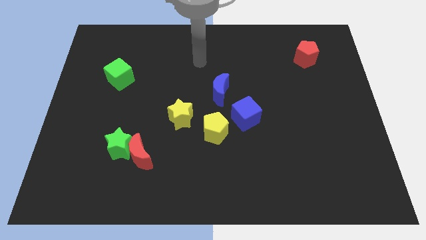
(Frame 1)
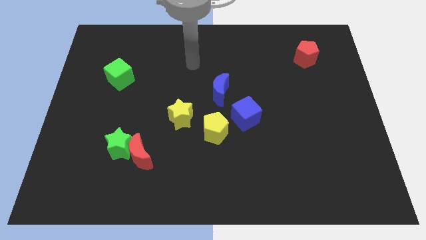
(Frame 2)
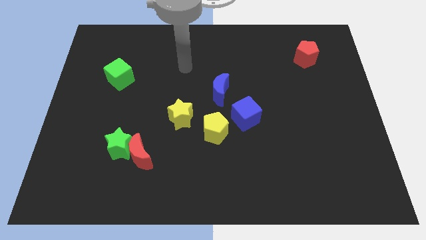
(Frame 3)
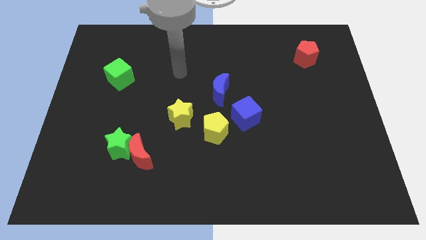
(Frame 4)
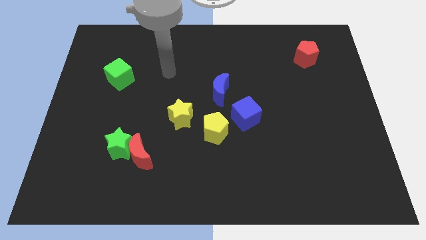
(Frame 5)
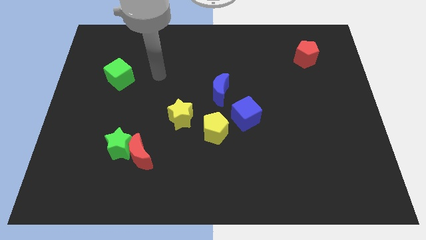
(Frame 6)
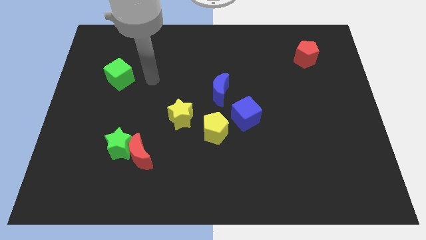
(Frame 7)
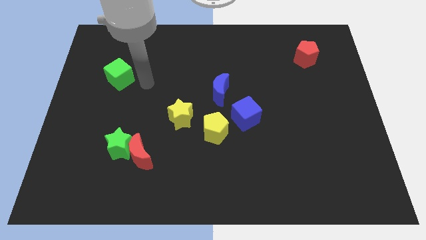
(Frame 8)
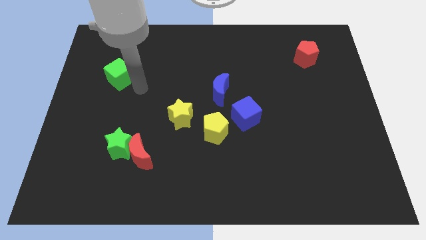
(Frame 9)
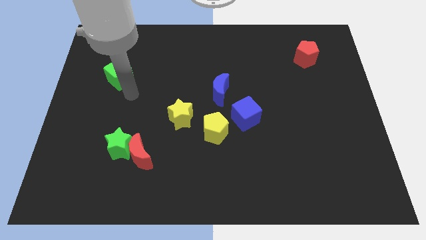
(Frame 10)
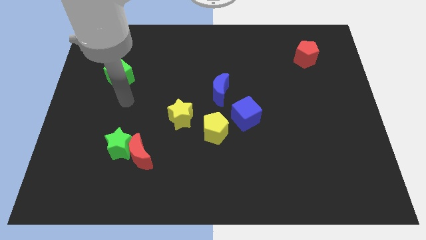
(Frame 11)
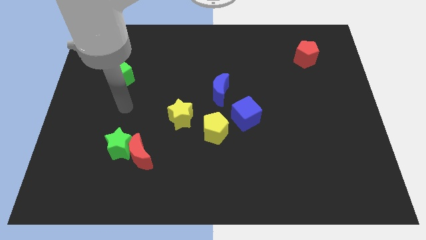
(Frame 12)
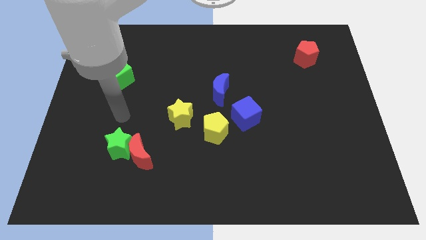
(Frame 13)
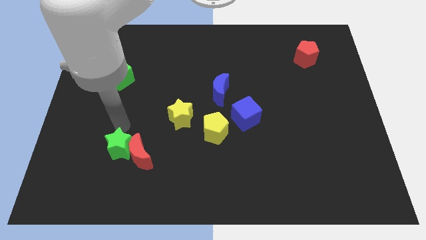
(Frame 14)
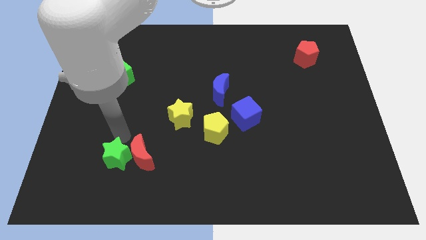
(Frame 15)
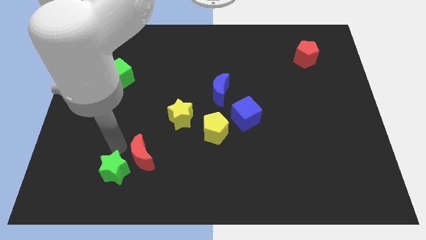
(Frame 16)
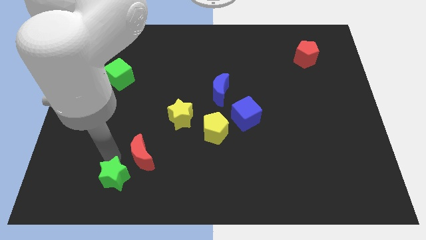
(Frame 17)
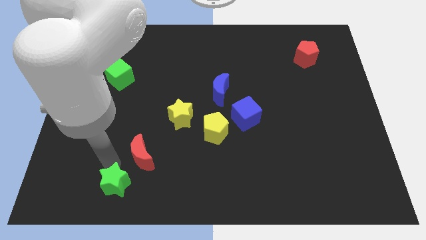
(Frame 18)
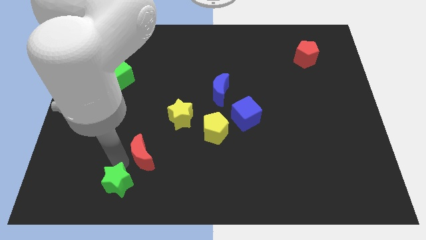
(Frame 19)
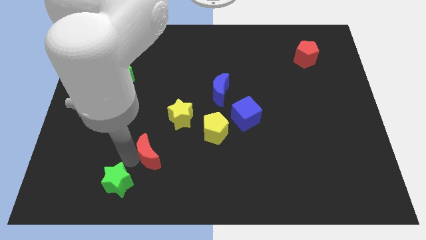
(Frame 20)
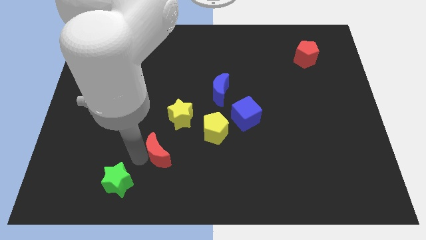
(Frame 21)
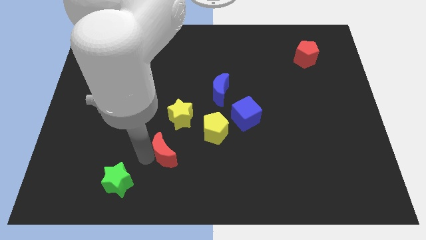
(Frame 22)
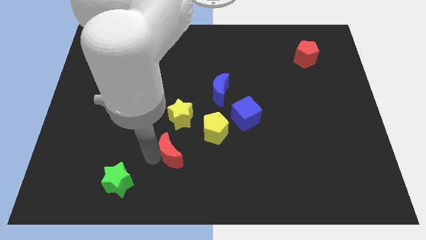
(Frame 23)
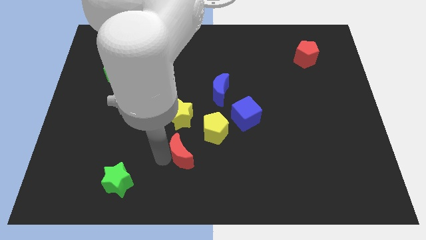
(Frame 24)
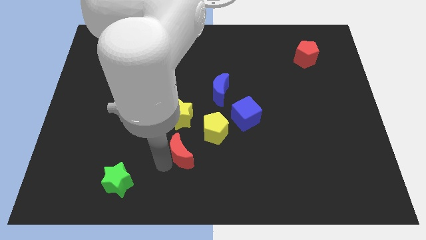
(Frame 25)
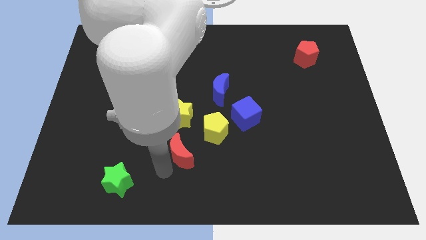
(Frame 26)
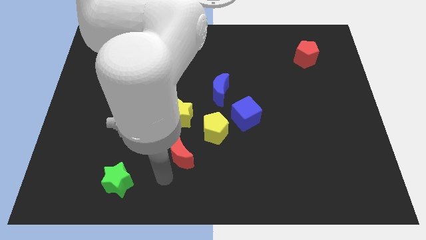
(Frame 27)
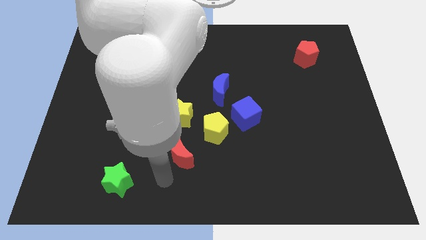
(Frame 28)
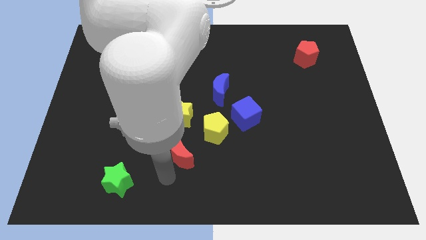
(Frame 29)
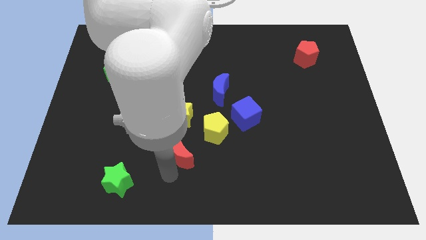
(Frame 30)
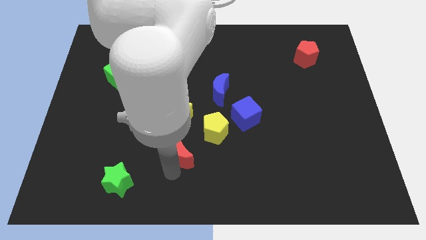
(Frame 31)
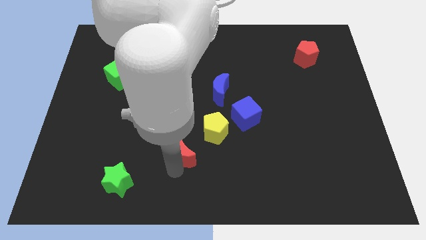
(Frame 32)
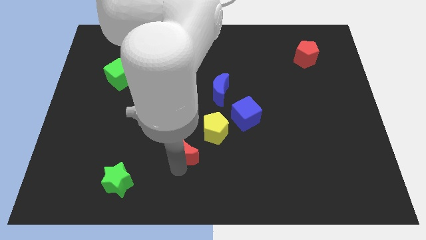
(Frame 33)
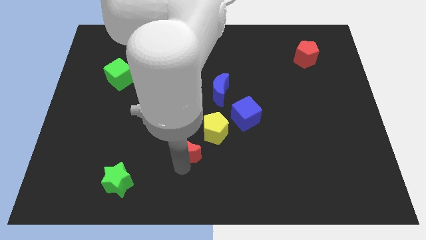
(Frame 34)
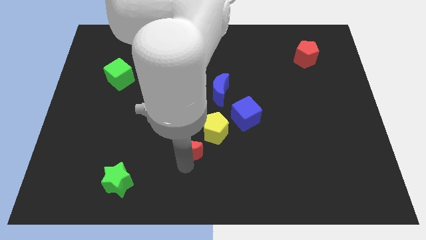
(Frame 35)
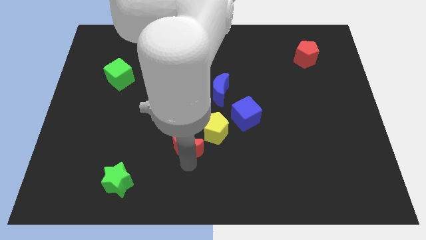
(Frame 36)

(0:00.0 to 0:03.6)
slightly slide the red moon up and then right

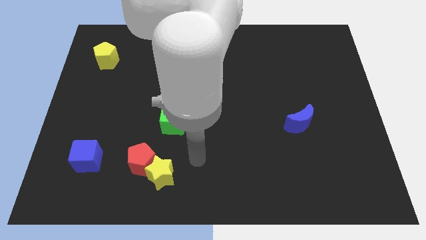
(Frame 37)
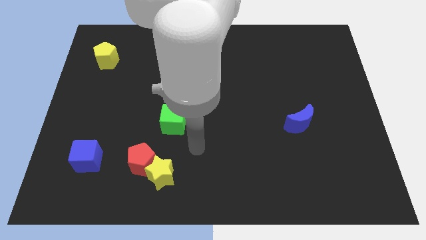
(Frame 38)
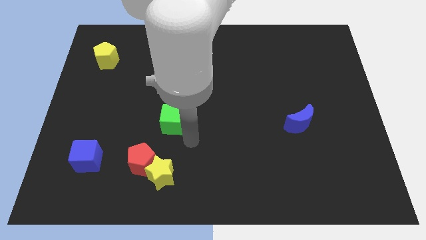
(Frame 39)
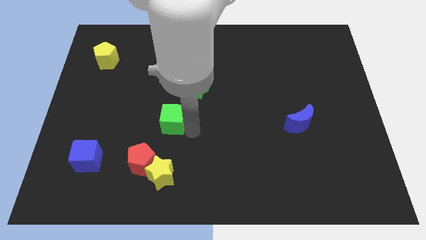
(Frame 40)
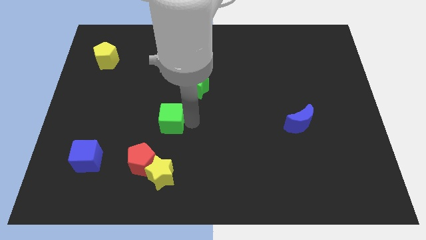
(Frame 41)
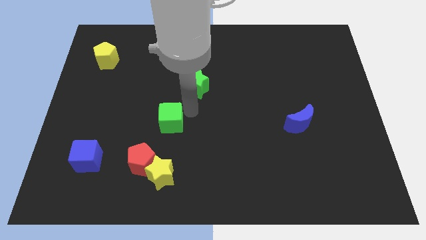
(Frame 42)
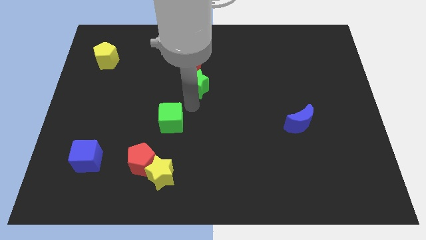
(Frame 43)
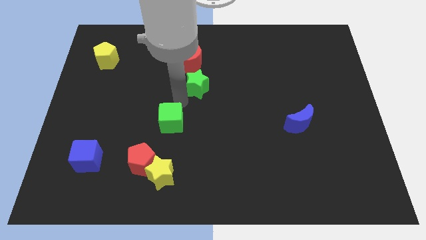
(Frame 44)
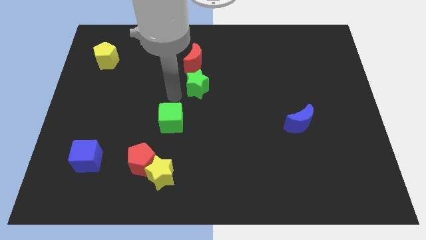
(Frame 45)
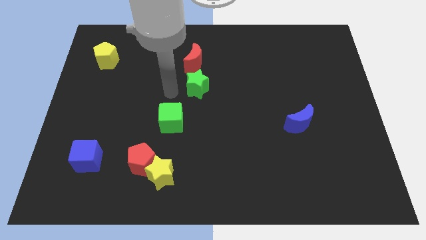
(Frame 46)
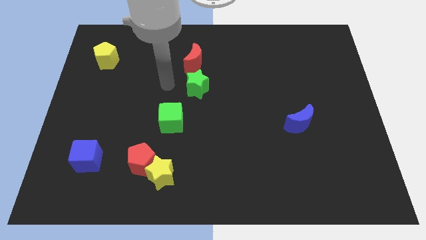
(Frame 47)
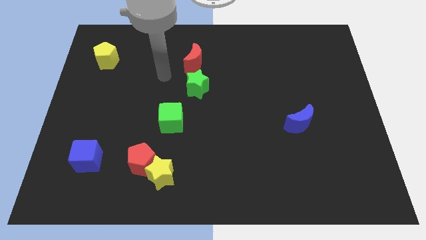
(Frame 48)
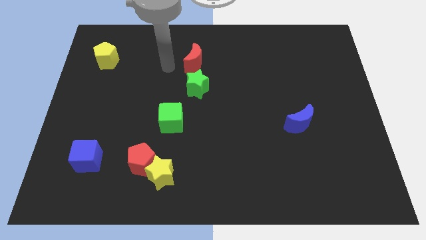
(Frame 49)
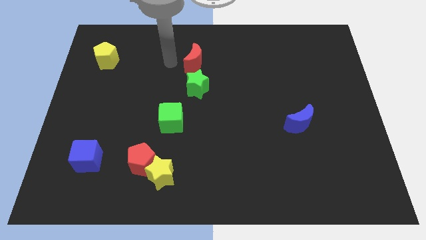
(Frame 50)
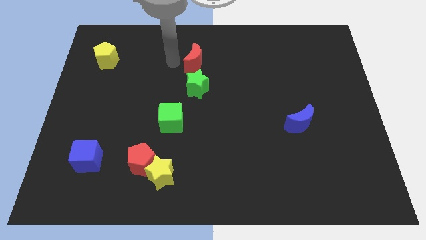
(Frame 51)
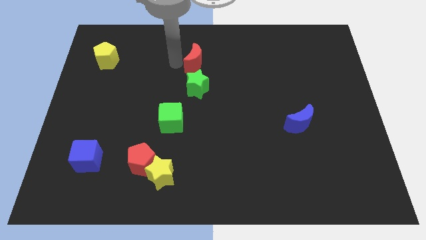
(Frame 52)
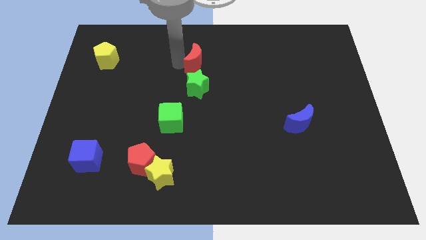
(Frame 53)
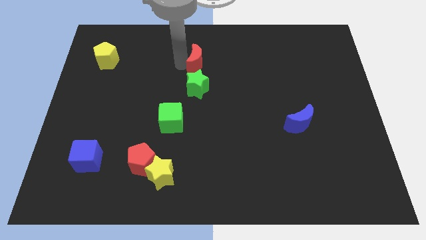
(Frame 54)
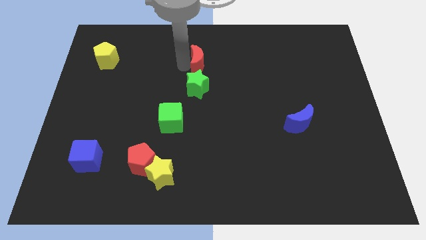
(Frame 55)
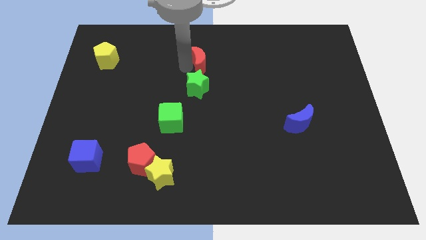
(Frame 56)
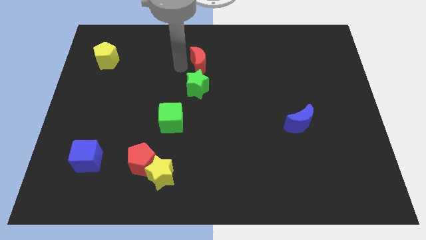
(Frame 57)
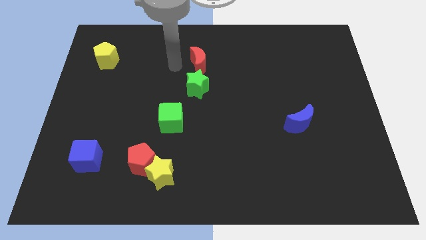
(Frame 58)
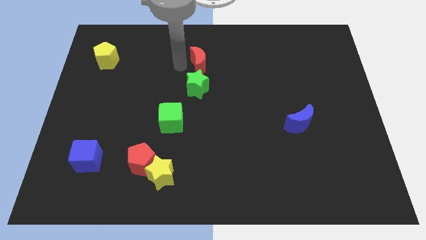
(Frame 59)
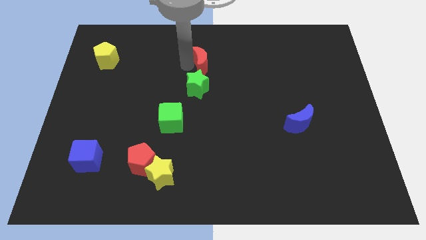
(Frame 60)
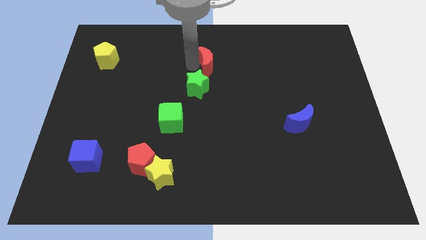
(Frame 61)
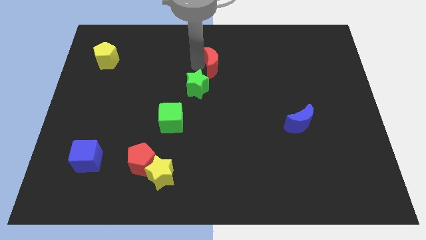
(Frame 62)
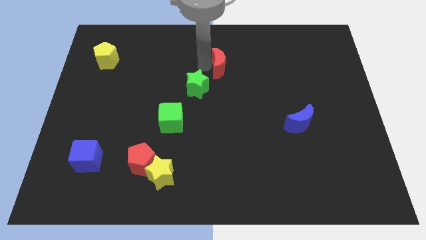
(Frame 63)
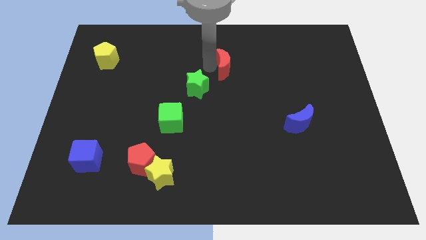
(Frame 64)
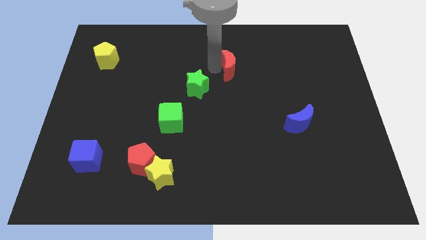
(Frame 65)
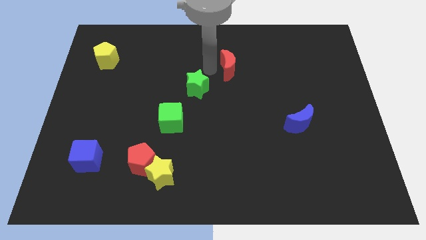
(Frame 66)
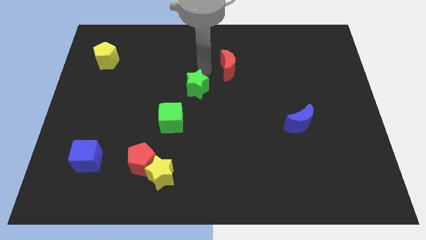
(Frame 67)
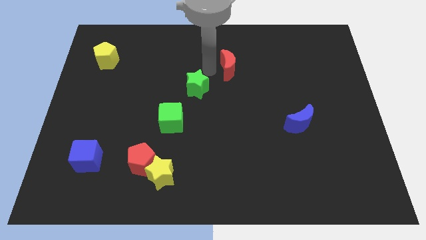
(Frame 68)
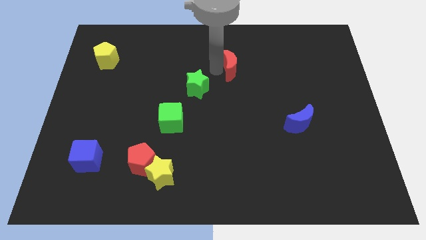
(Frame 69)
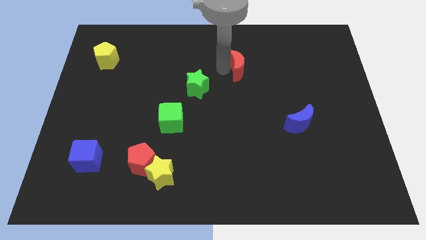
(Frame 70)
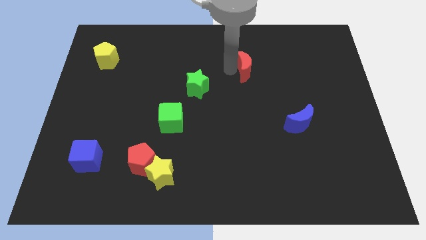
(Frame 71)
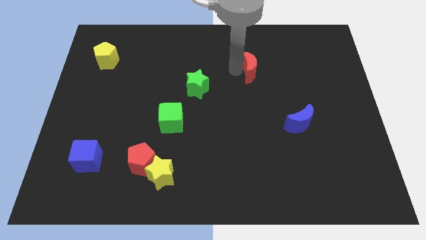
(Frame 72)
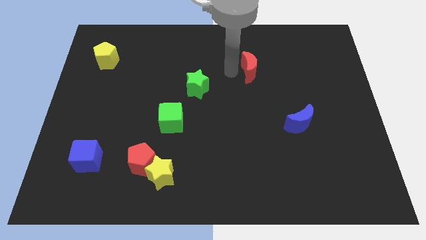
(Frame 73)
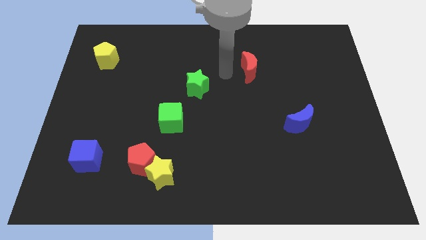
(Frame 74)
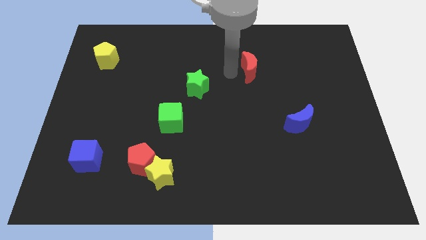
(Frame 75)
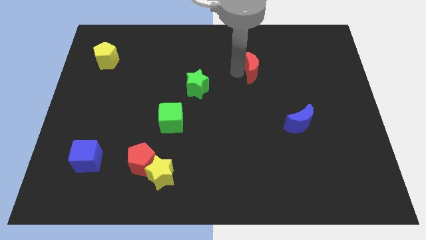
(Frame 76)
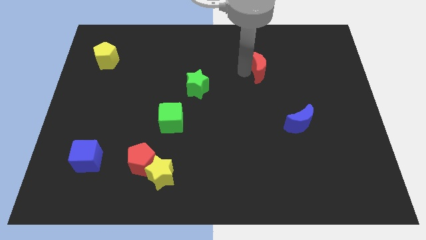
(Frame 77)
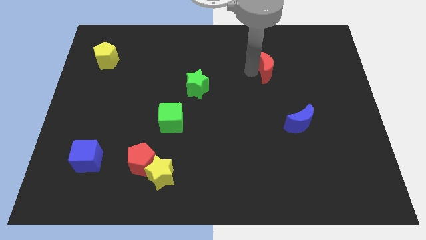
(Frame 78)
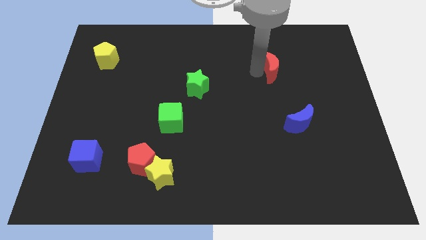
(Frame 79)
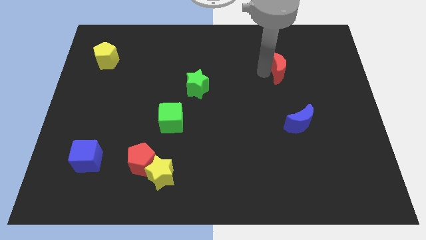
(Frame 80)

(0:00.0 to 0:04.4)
move the red moon right
